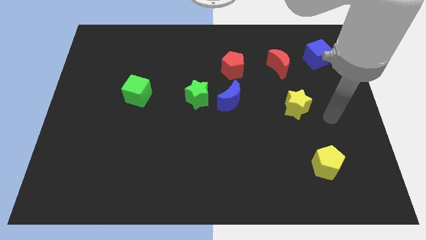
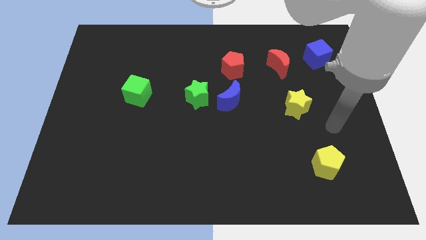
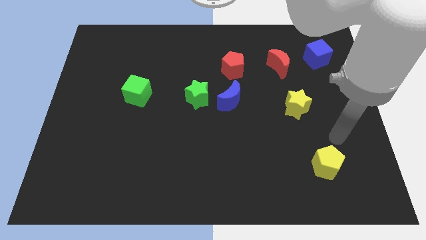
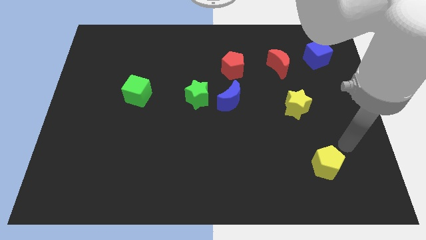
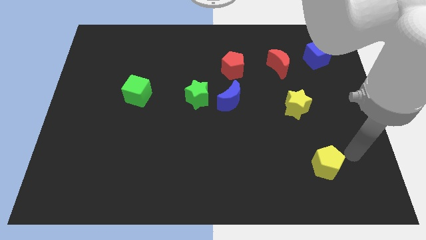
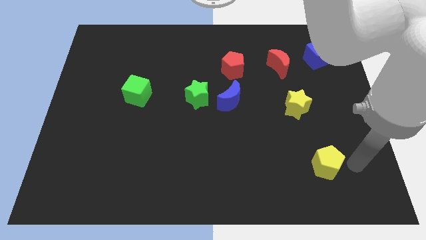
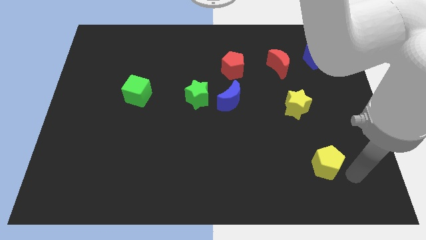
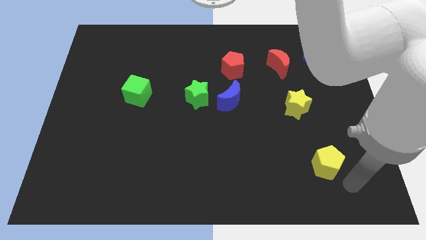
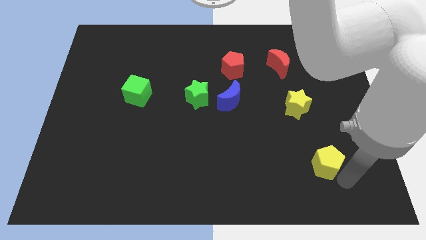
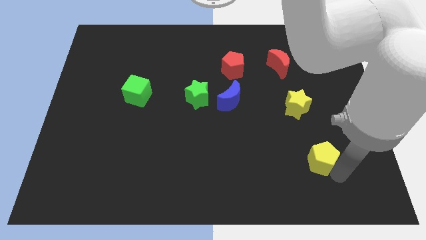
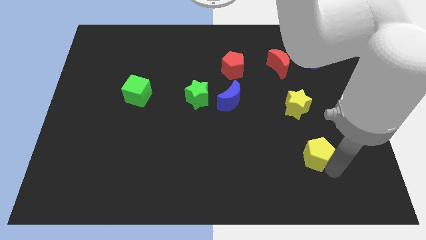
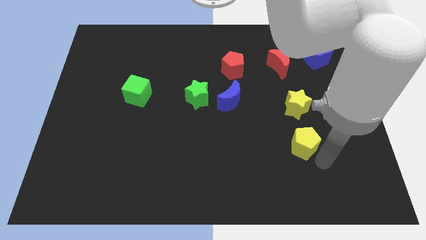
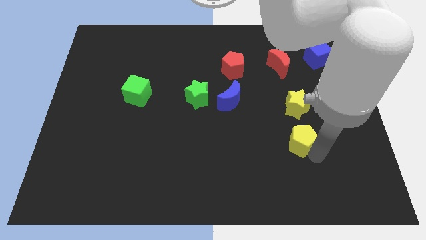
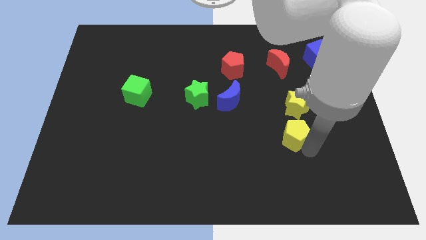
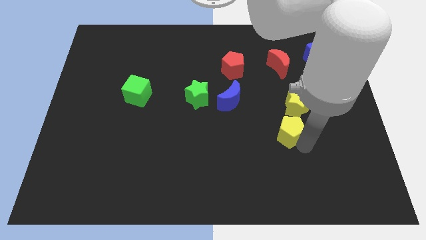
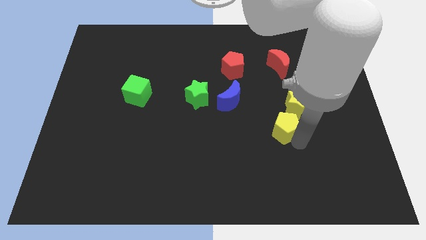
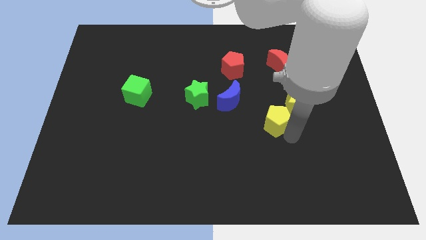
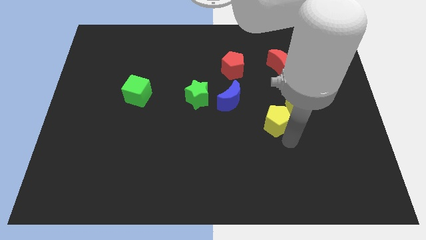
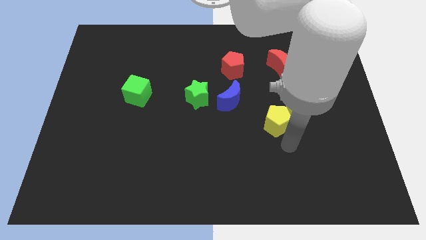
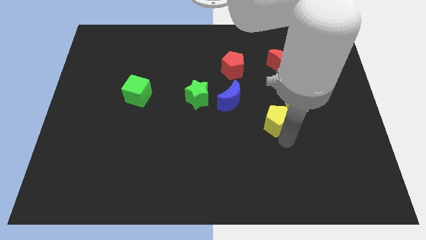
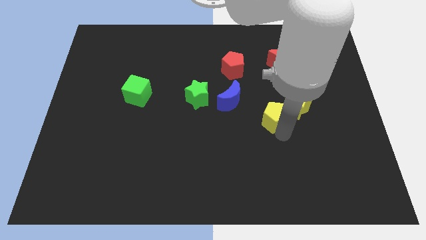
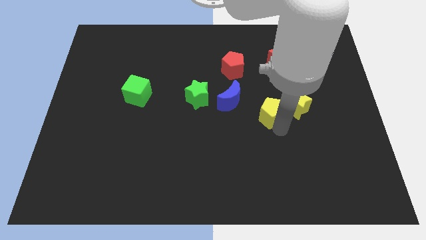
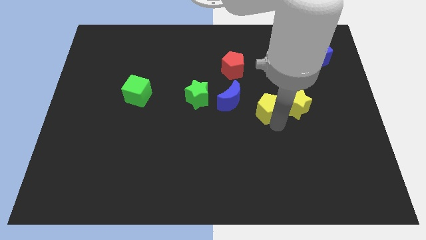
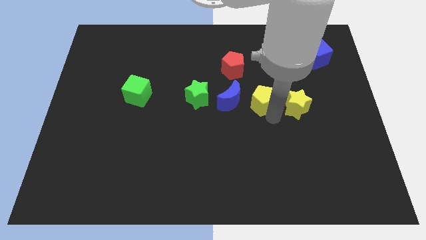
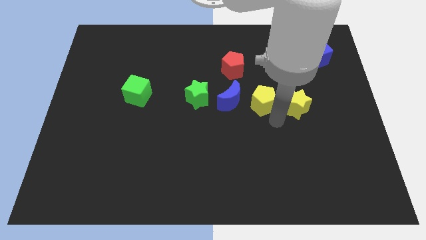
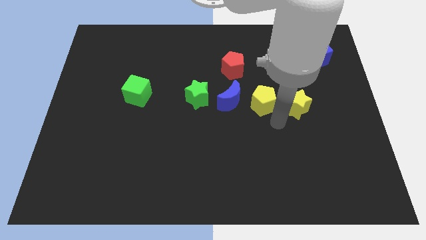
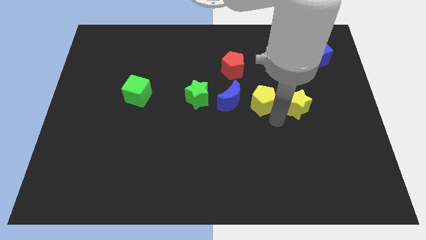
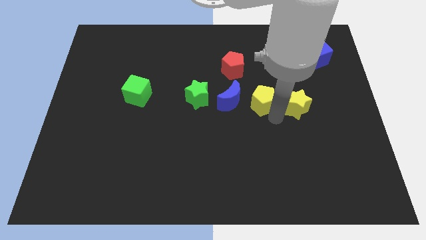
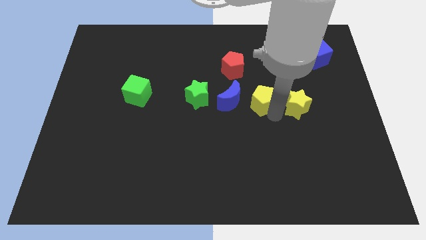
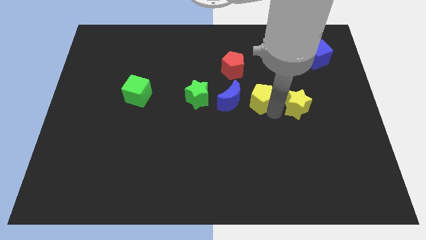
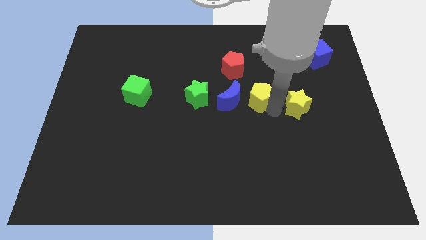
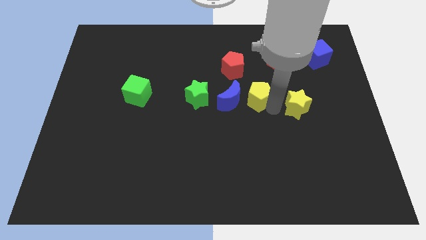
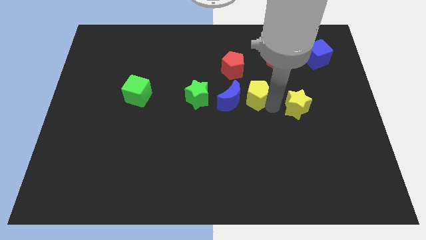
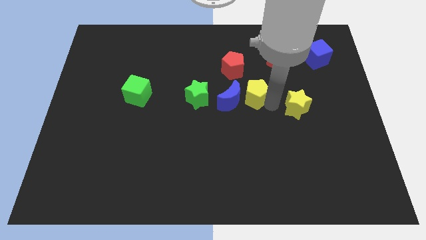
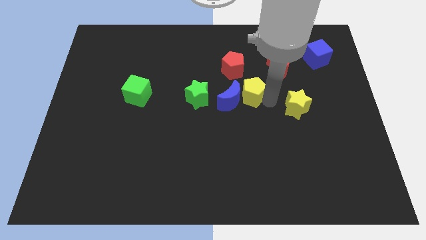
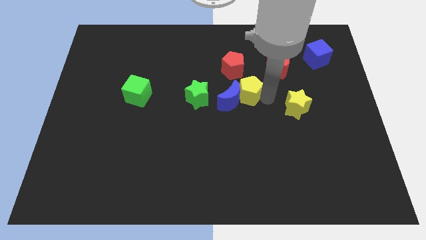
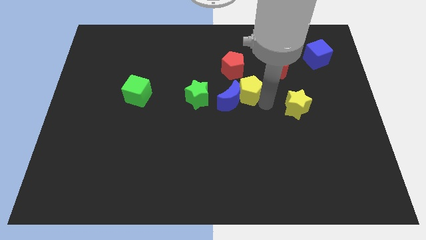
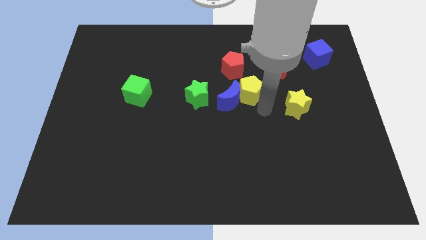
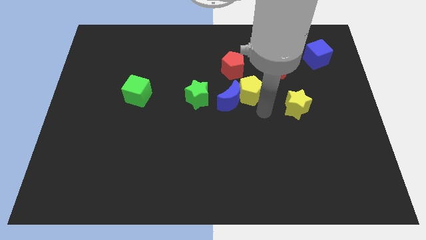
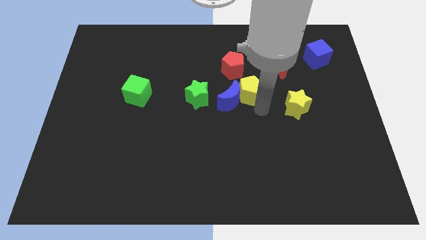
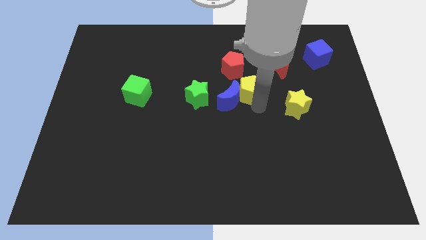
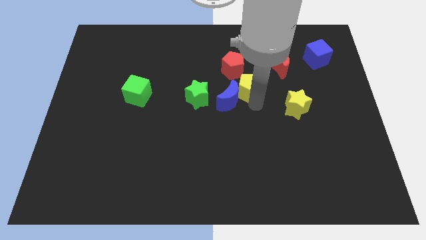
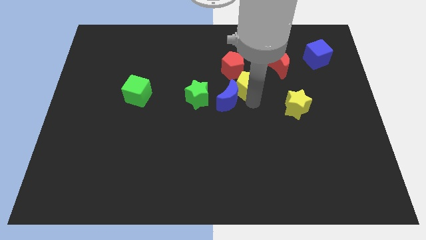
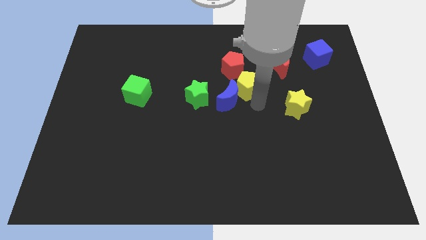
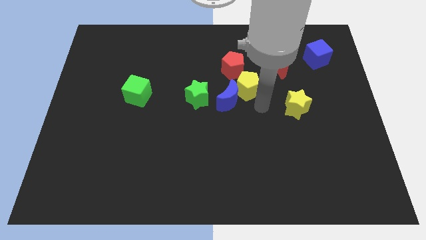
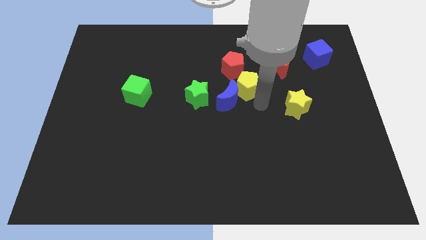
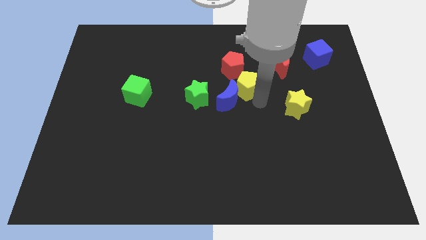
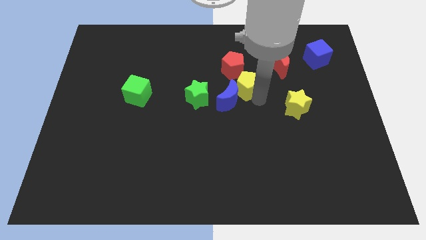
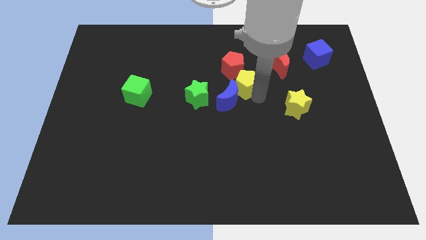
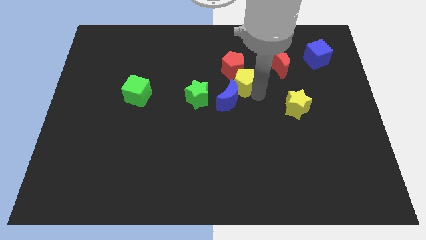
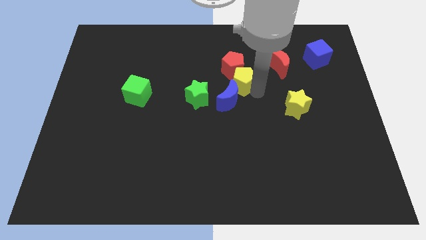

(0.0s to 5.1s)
push the yellow pentagon close to the red pentagon

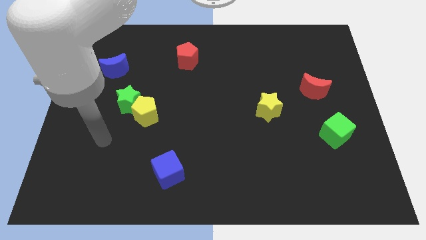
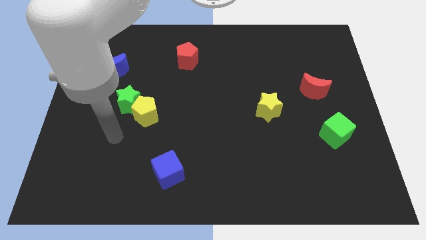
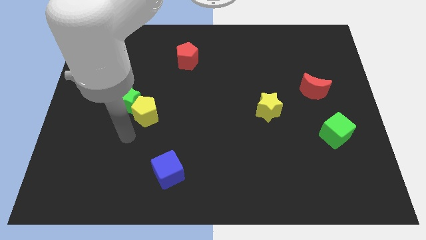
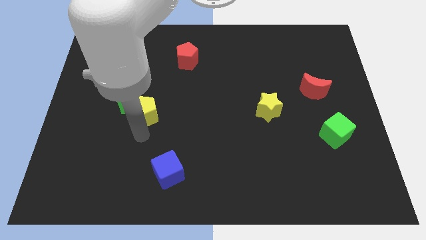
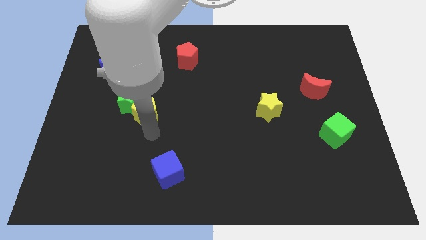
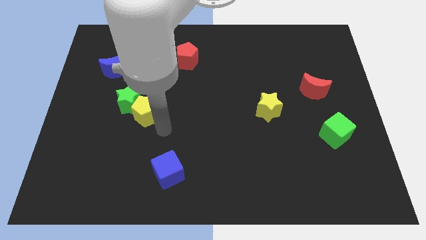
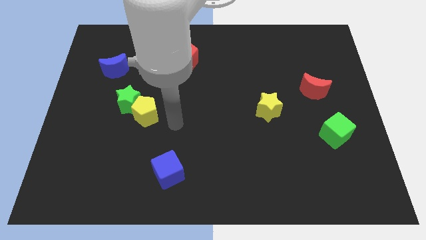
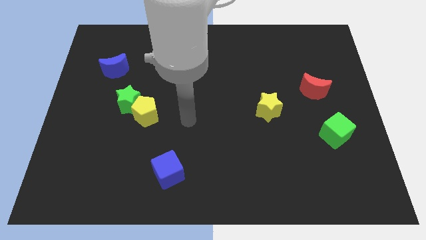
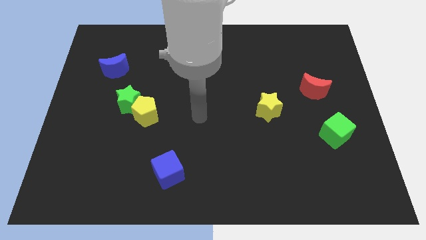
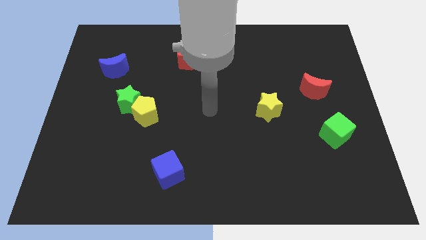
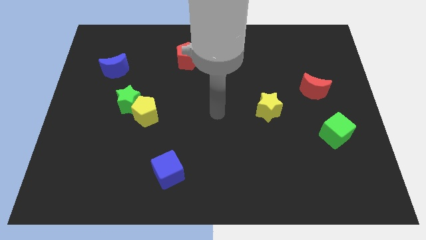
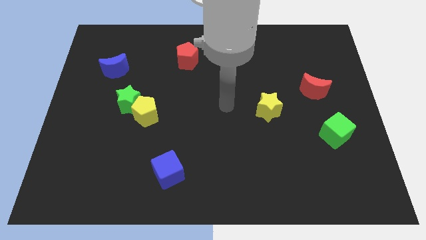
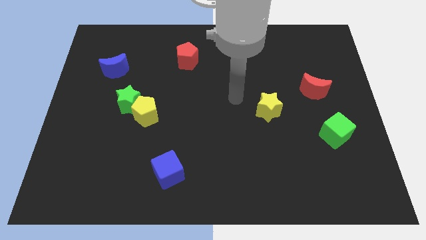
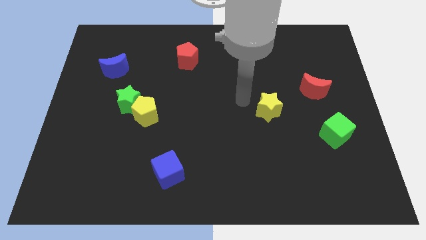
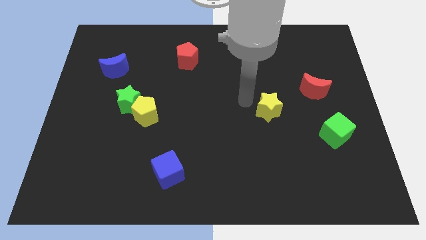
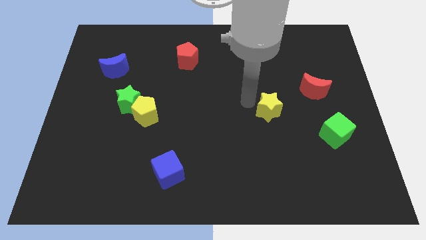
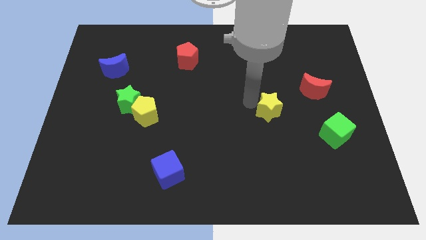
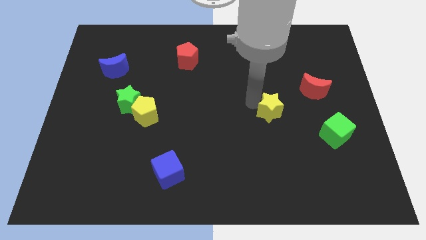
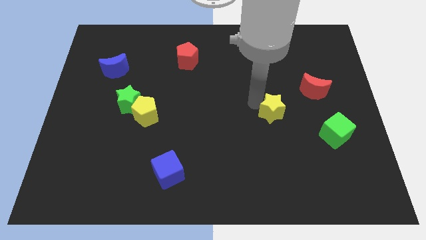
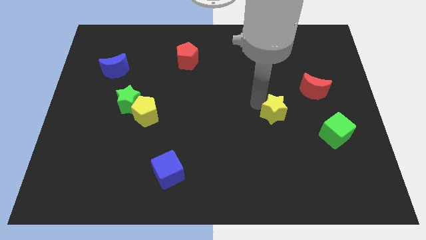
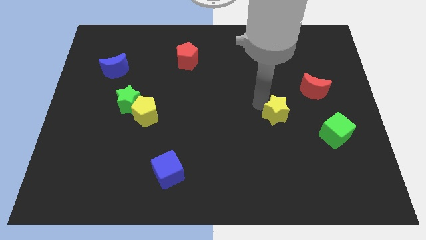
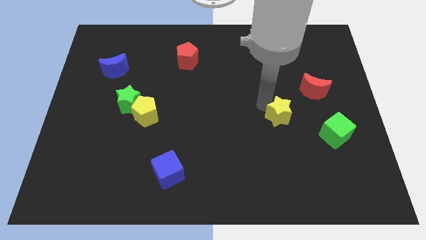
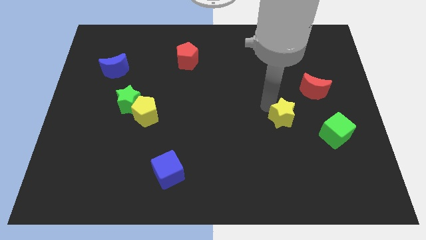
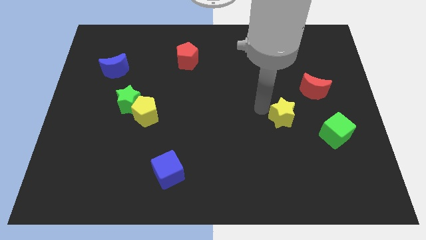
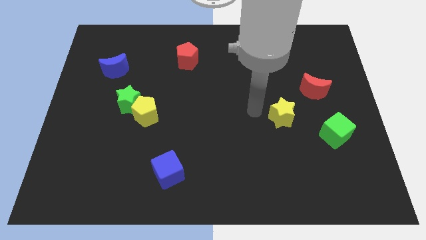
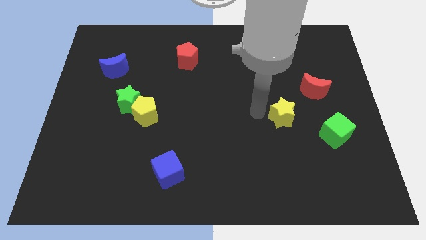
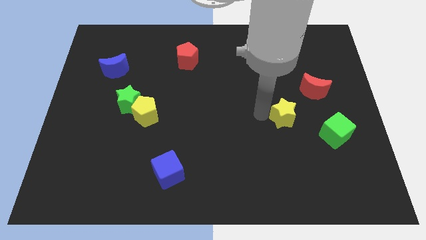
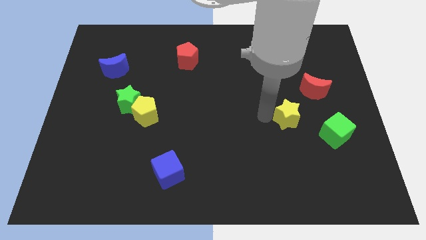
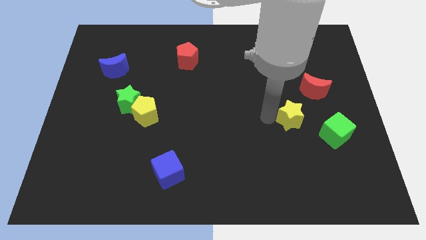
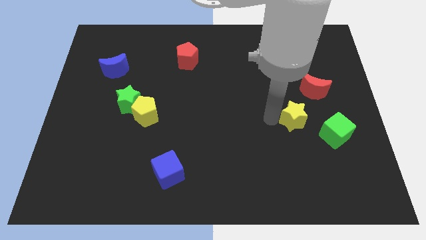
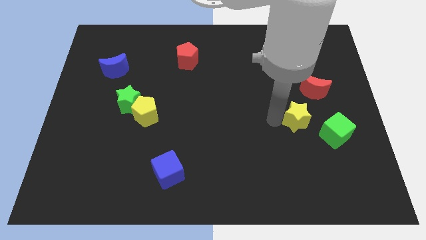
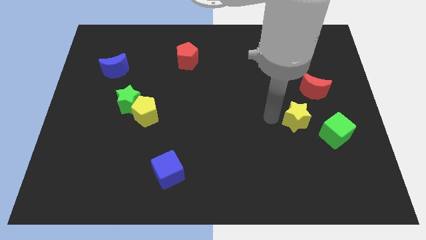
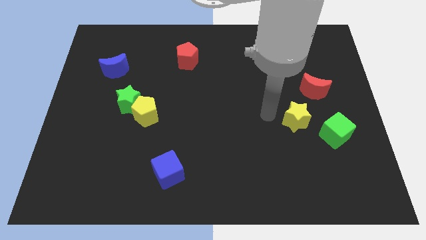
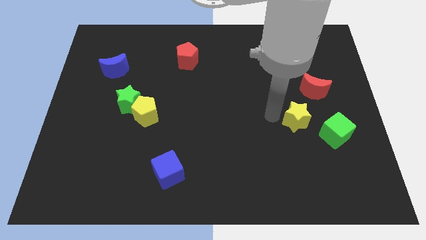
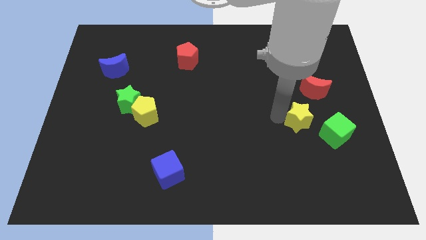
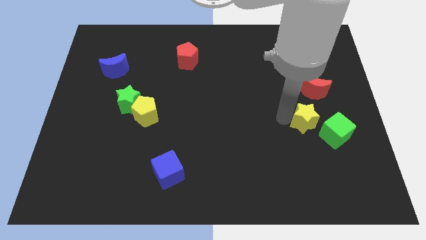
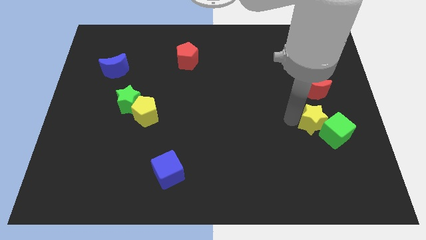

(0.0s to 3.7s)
slide the yellow star next to the green cube
